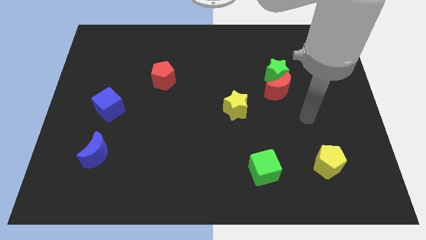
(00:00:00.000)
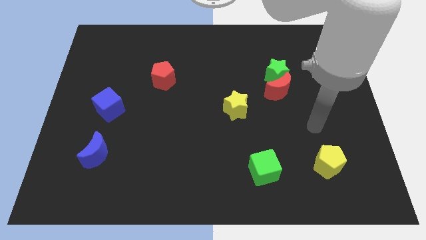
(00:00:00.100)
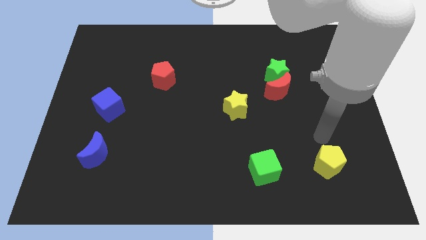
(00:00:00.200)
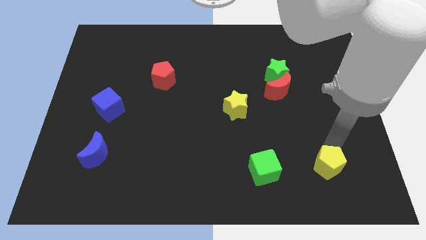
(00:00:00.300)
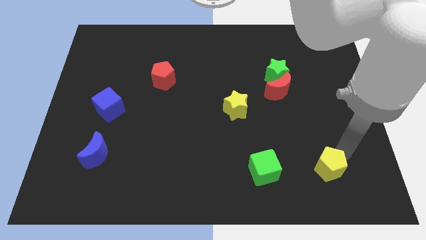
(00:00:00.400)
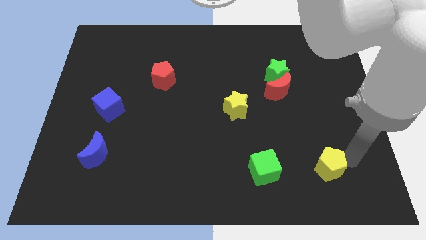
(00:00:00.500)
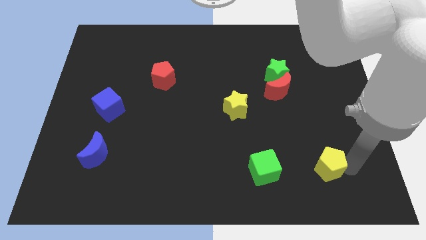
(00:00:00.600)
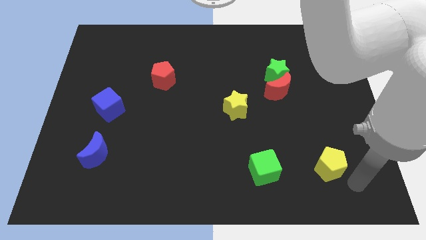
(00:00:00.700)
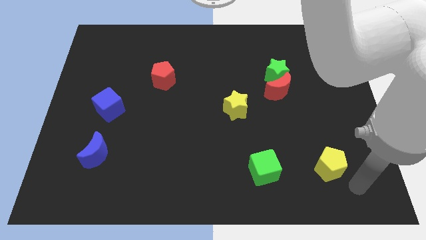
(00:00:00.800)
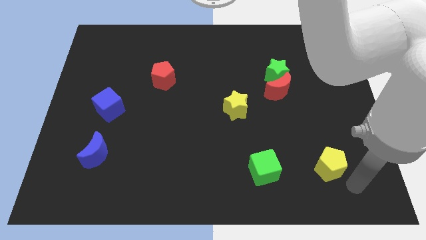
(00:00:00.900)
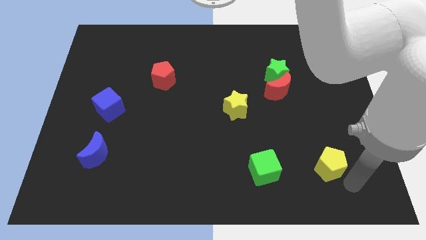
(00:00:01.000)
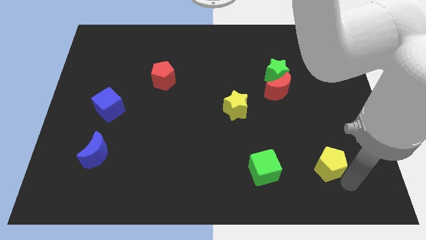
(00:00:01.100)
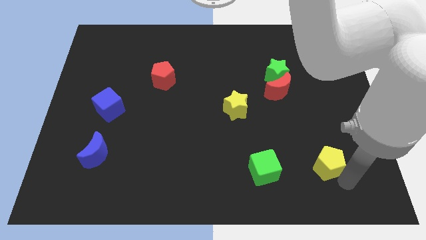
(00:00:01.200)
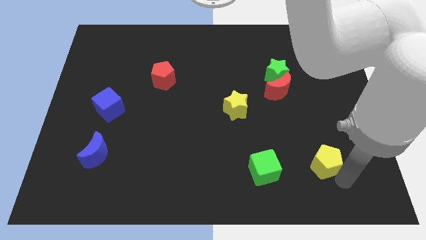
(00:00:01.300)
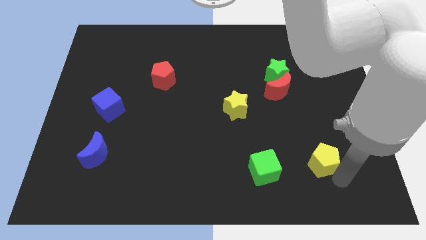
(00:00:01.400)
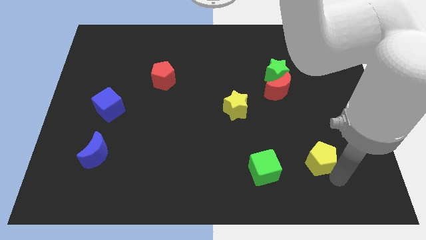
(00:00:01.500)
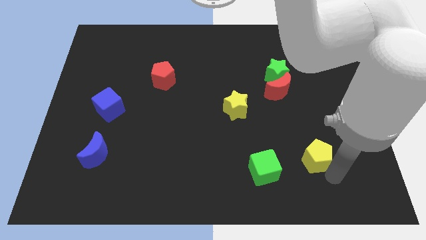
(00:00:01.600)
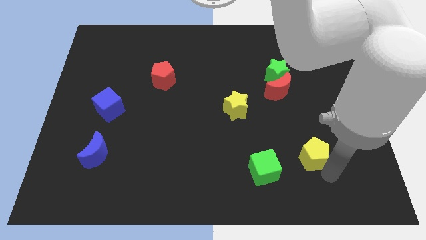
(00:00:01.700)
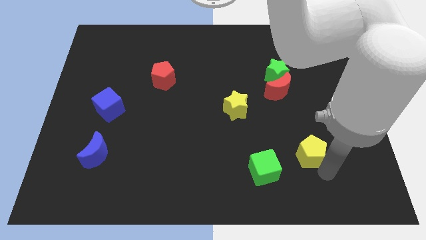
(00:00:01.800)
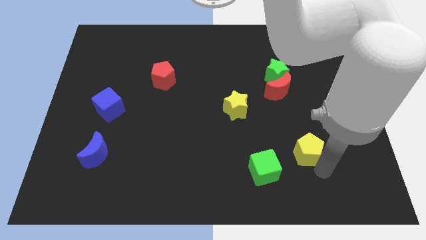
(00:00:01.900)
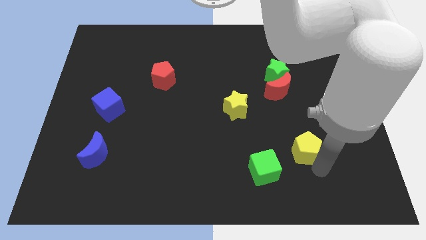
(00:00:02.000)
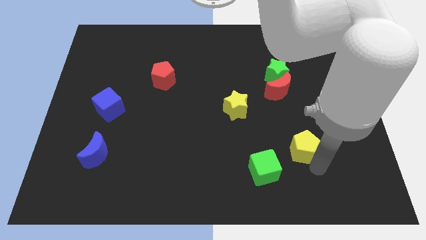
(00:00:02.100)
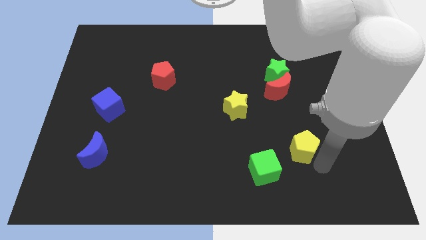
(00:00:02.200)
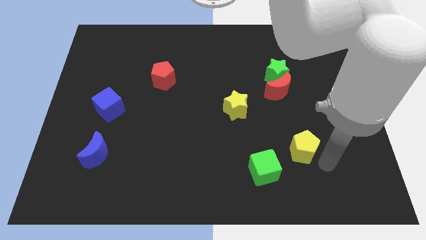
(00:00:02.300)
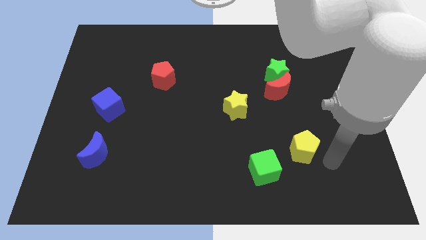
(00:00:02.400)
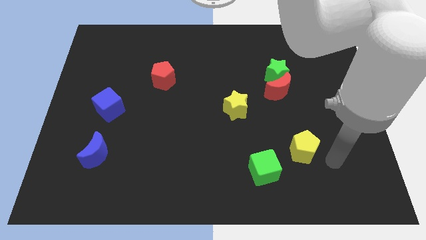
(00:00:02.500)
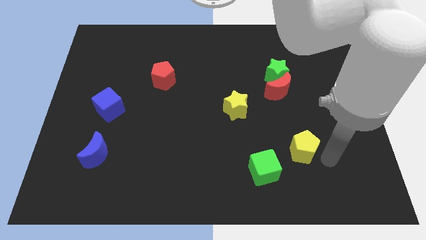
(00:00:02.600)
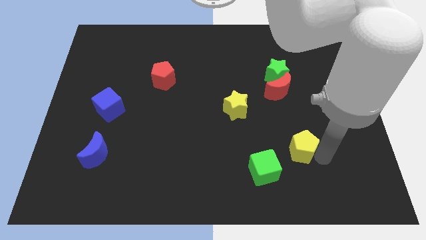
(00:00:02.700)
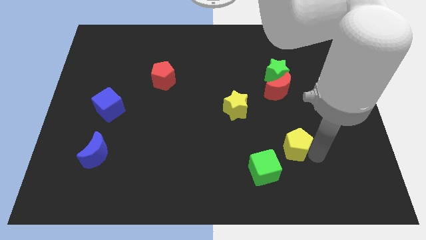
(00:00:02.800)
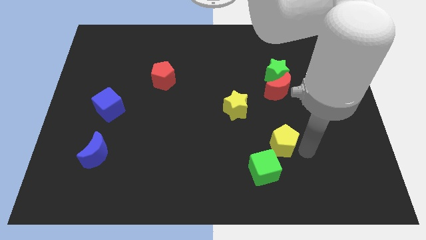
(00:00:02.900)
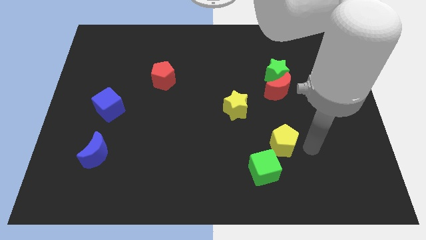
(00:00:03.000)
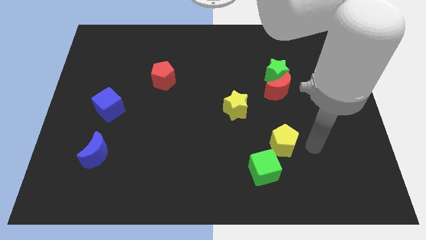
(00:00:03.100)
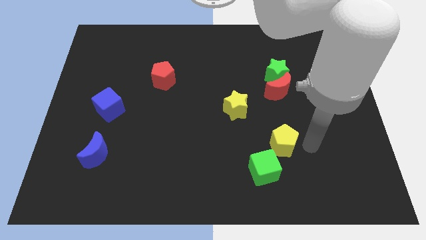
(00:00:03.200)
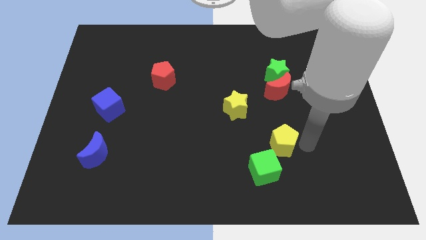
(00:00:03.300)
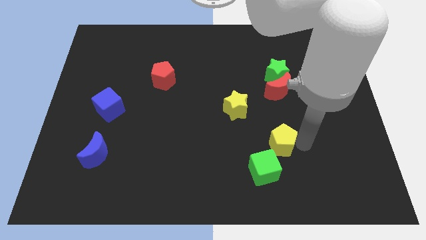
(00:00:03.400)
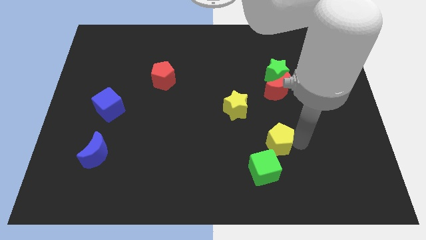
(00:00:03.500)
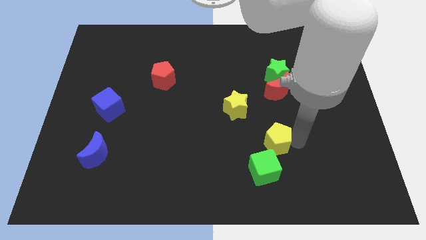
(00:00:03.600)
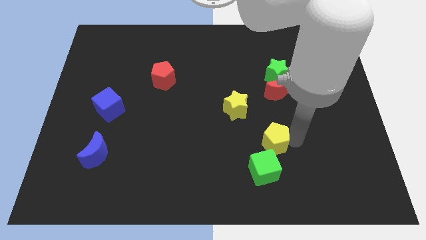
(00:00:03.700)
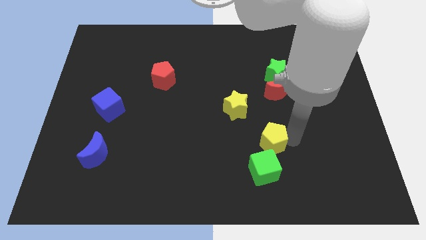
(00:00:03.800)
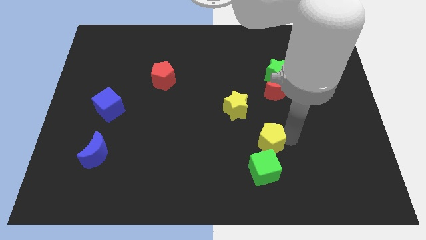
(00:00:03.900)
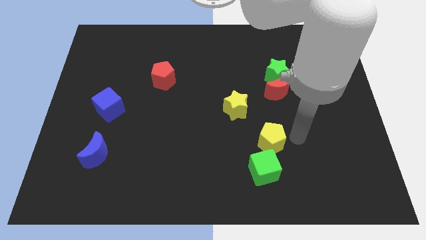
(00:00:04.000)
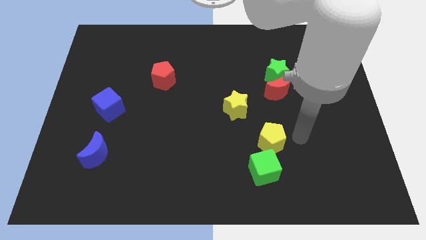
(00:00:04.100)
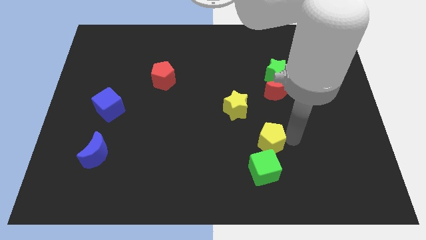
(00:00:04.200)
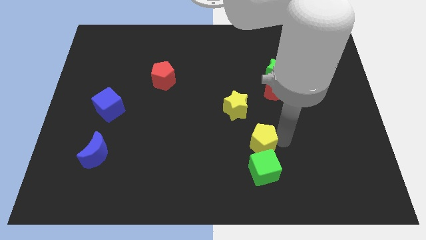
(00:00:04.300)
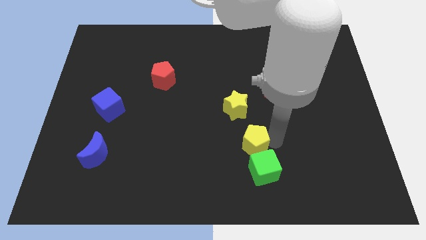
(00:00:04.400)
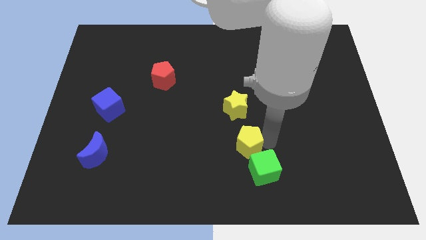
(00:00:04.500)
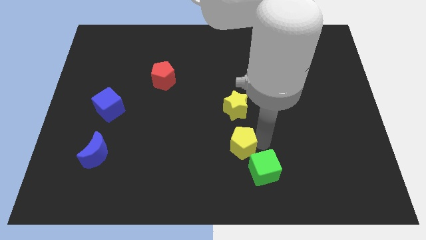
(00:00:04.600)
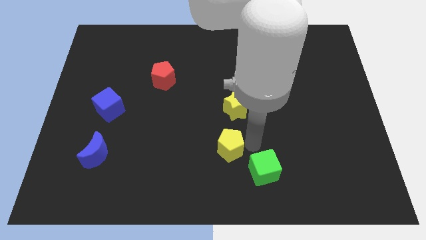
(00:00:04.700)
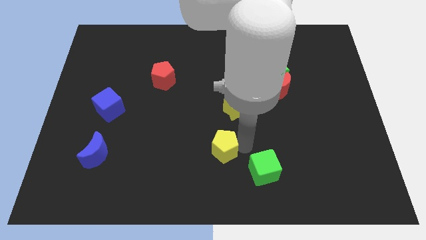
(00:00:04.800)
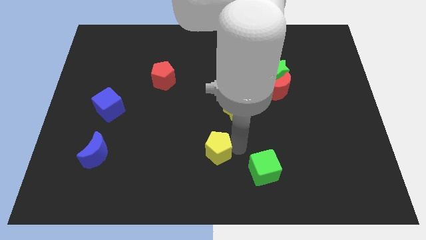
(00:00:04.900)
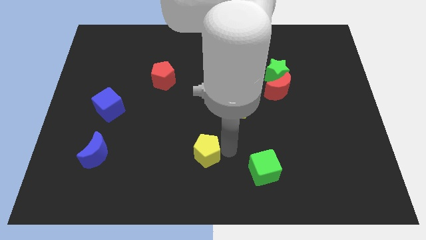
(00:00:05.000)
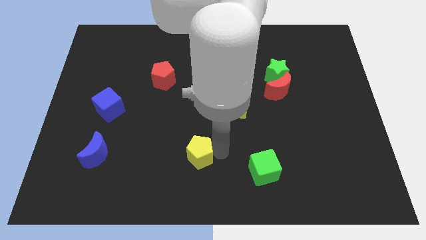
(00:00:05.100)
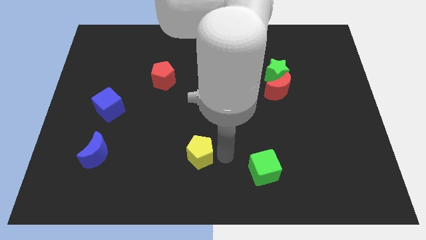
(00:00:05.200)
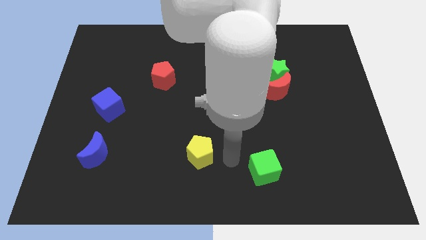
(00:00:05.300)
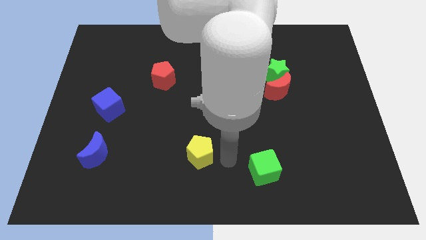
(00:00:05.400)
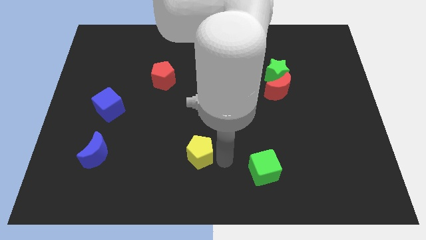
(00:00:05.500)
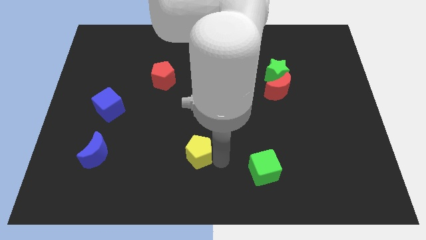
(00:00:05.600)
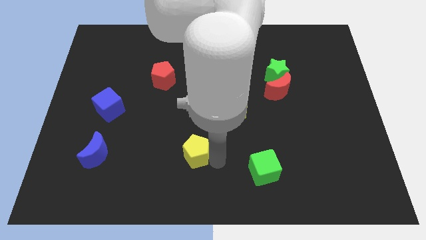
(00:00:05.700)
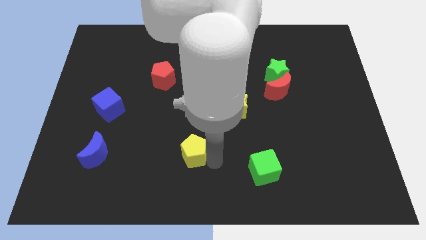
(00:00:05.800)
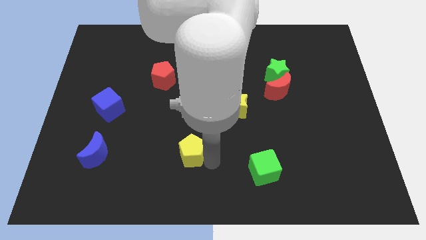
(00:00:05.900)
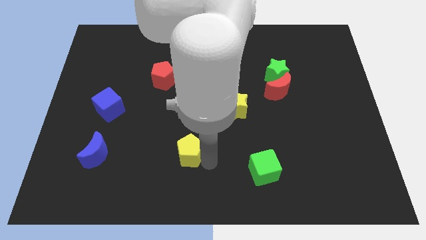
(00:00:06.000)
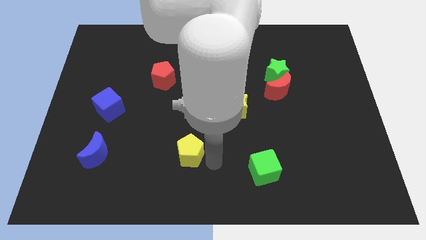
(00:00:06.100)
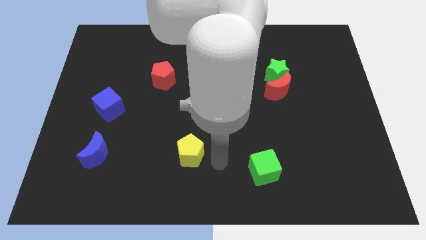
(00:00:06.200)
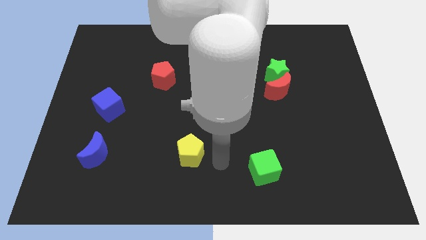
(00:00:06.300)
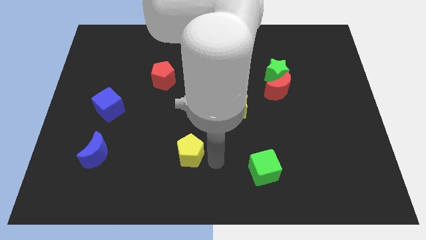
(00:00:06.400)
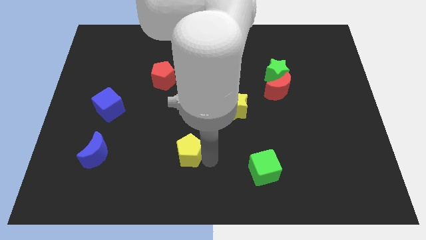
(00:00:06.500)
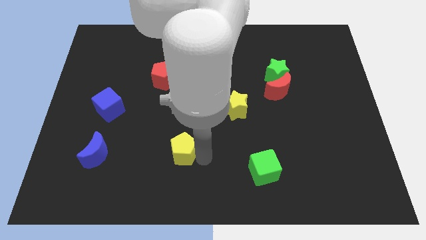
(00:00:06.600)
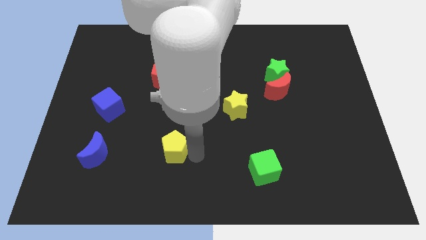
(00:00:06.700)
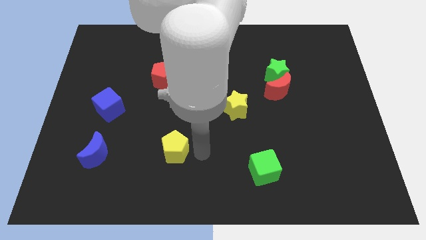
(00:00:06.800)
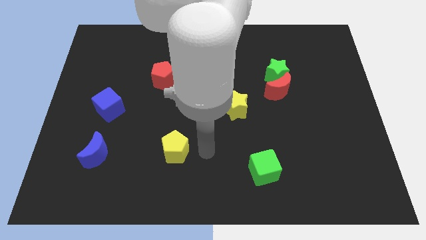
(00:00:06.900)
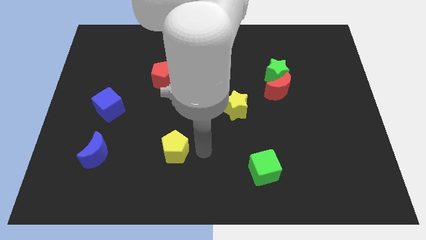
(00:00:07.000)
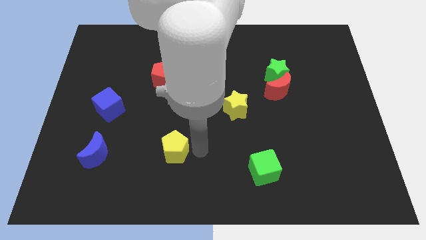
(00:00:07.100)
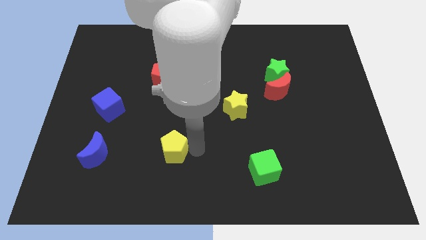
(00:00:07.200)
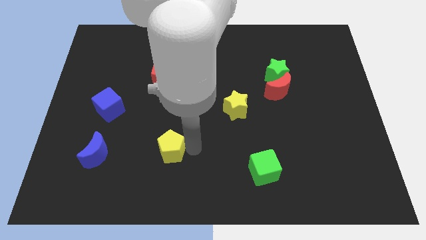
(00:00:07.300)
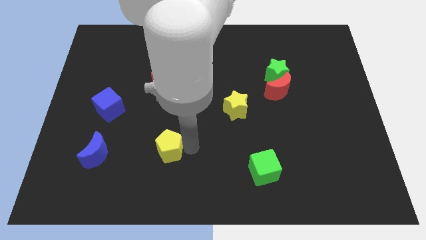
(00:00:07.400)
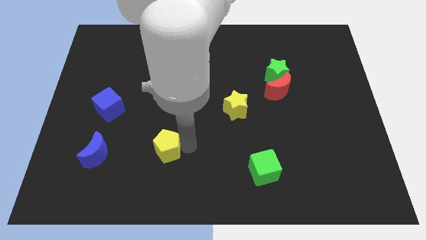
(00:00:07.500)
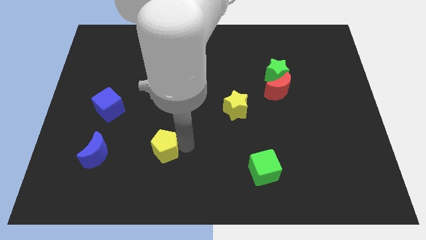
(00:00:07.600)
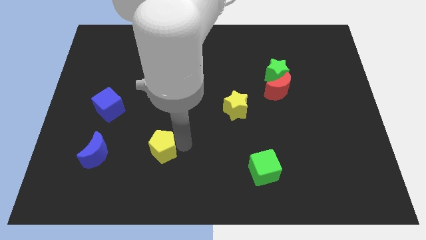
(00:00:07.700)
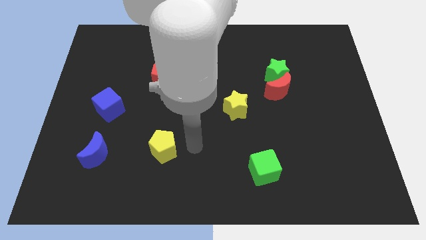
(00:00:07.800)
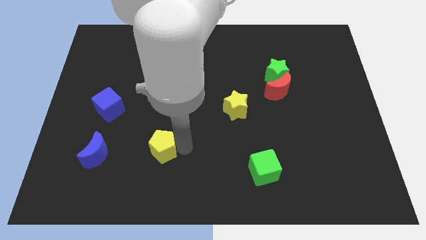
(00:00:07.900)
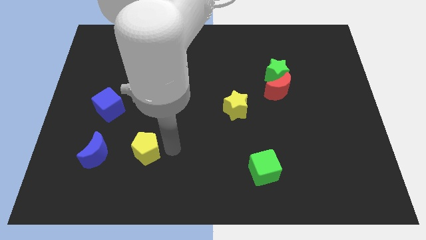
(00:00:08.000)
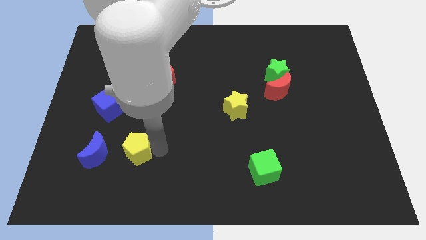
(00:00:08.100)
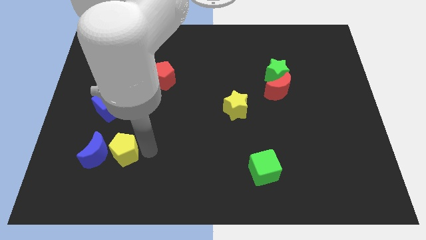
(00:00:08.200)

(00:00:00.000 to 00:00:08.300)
move the yellow pentagon close to the blue moon
